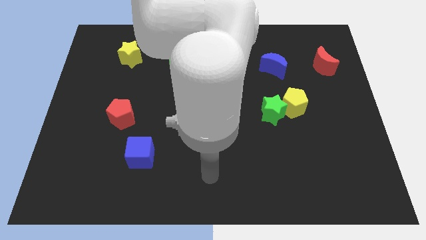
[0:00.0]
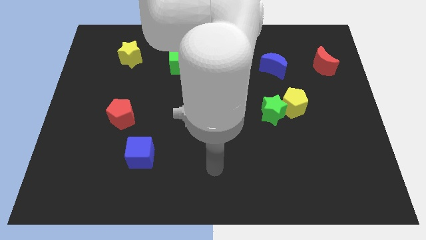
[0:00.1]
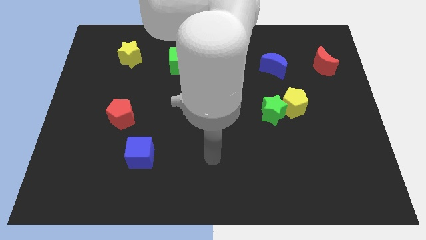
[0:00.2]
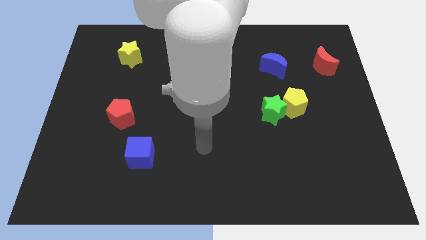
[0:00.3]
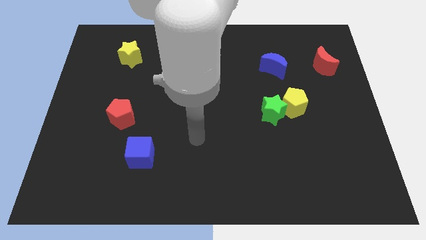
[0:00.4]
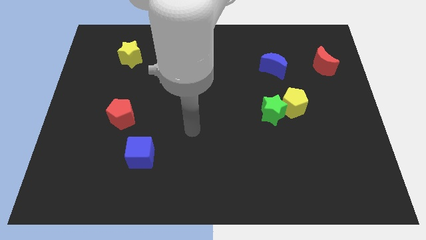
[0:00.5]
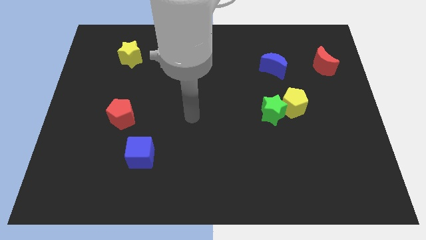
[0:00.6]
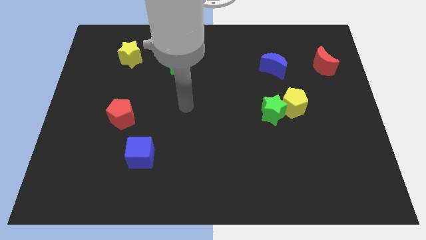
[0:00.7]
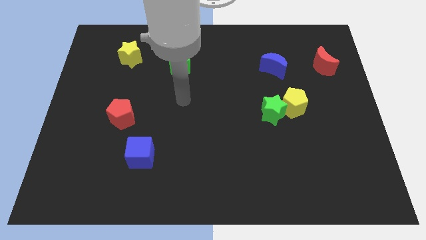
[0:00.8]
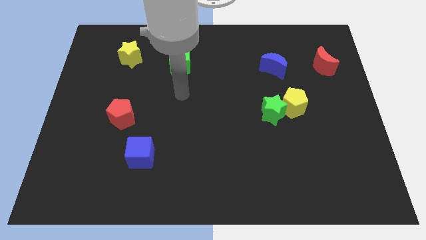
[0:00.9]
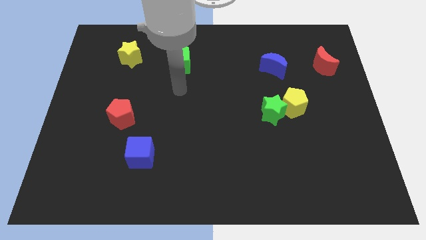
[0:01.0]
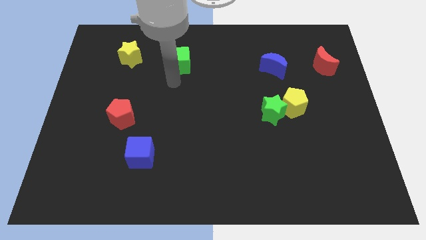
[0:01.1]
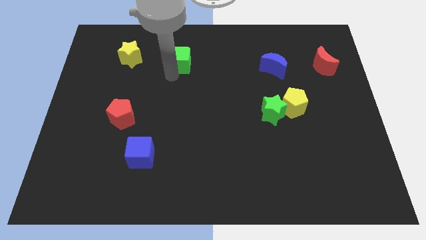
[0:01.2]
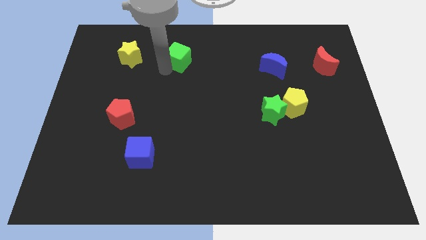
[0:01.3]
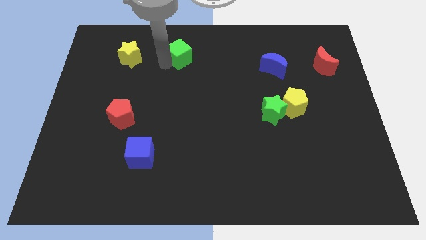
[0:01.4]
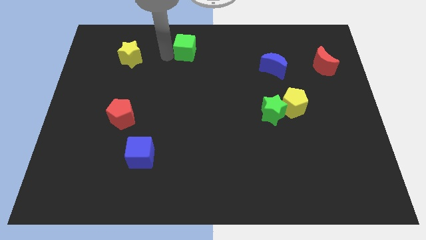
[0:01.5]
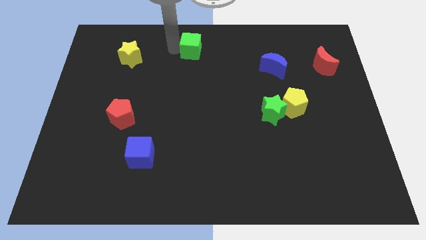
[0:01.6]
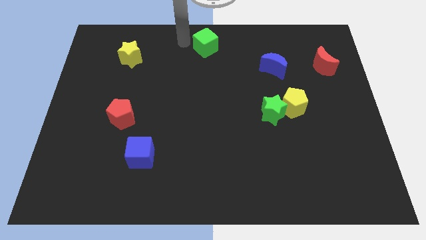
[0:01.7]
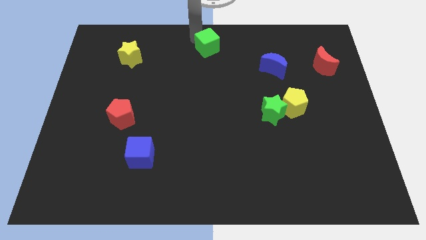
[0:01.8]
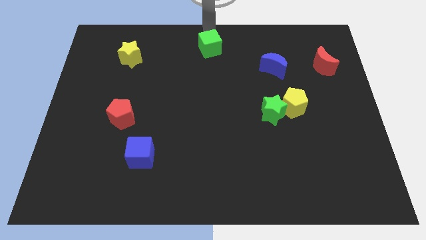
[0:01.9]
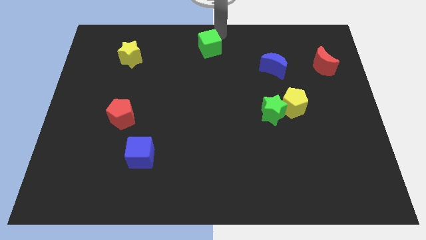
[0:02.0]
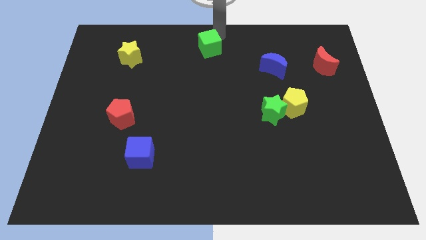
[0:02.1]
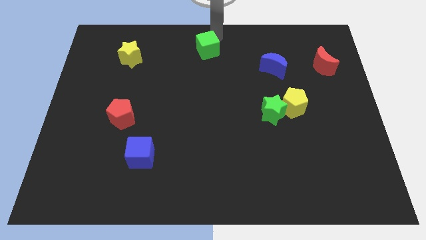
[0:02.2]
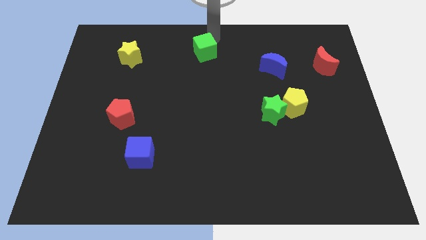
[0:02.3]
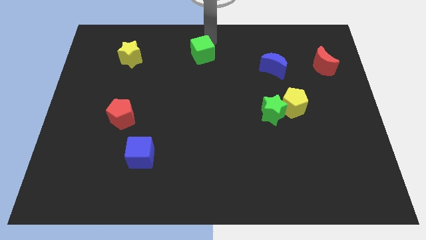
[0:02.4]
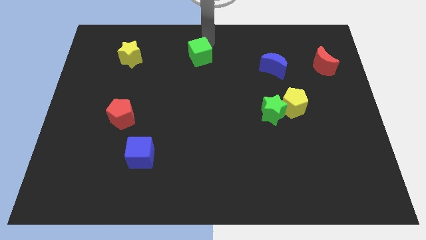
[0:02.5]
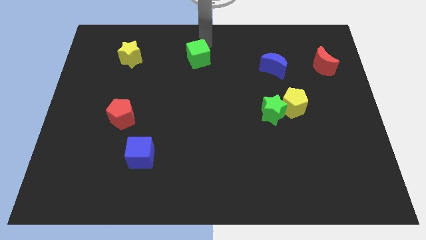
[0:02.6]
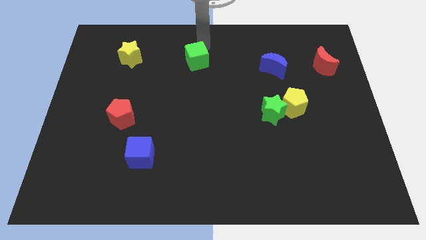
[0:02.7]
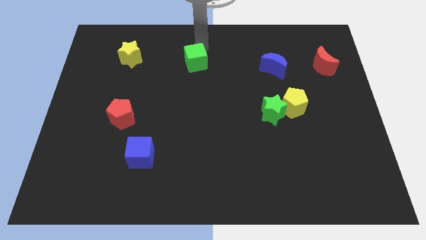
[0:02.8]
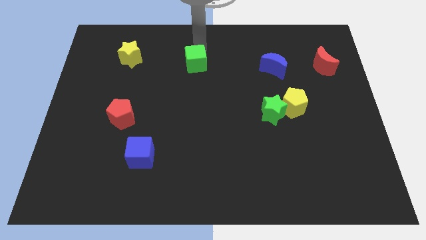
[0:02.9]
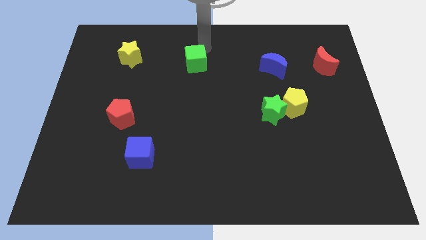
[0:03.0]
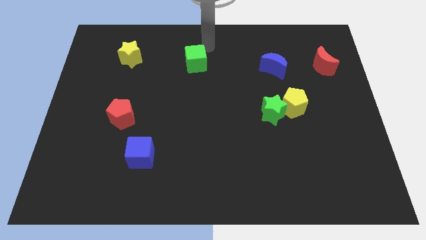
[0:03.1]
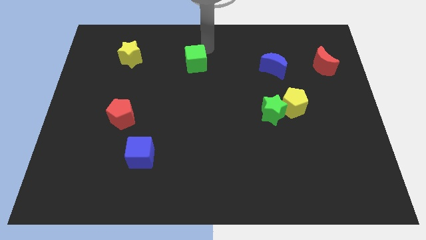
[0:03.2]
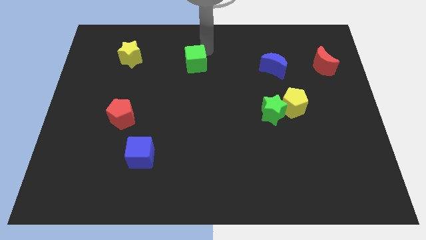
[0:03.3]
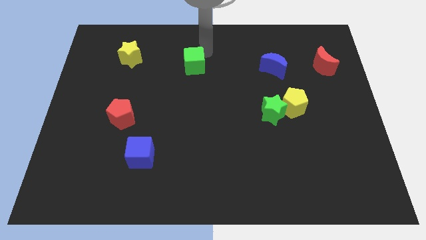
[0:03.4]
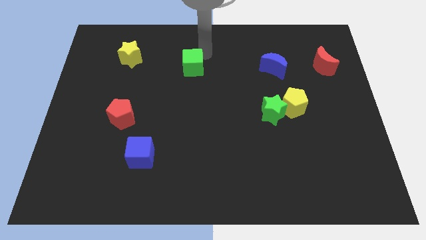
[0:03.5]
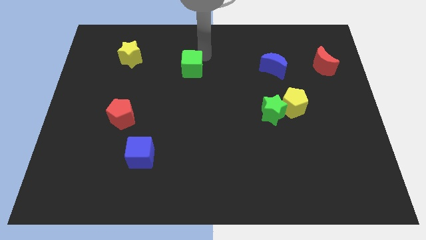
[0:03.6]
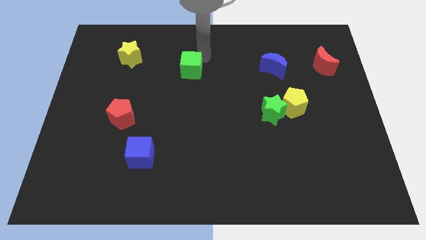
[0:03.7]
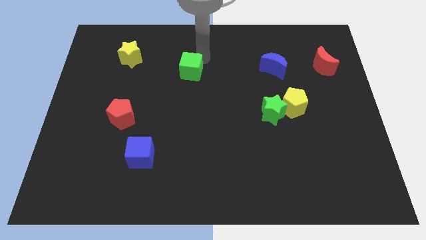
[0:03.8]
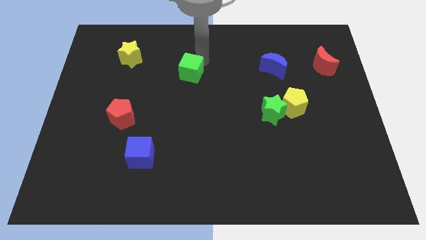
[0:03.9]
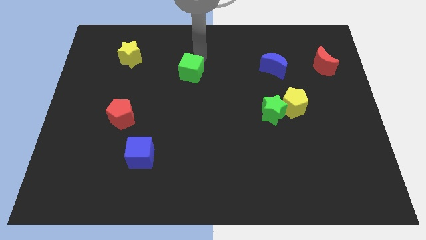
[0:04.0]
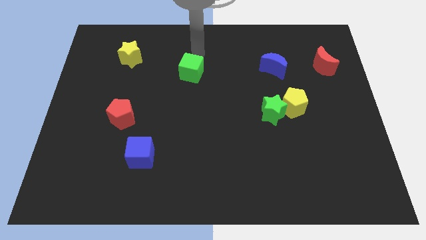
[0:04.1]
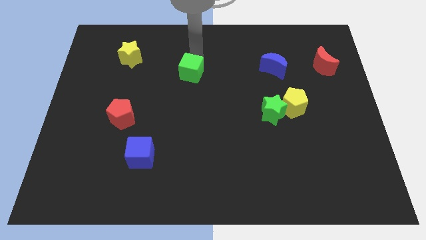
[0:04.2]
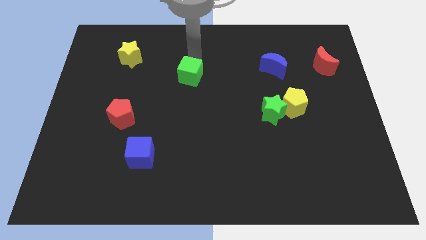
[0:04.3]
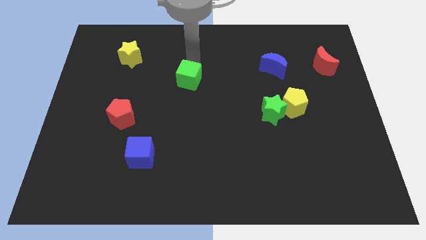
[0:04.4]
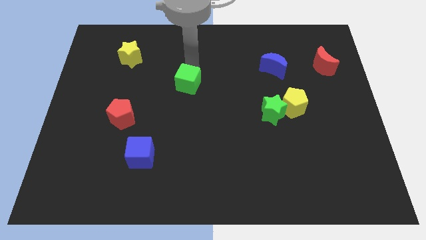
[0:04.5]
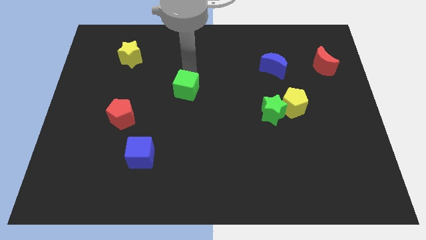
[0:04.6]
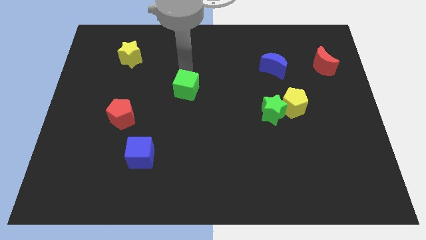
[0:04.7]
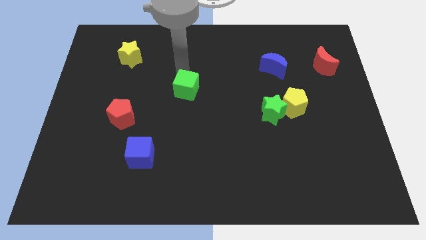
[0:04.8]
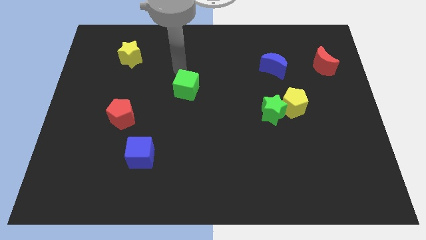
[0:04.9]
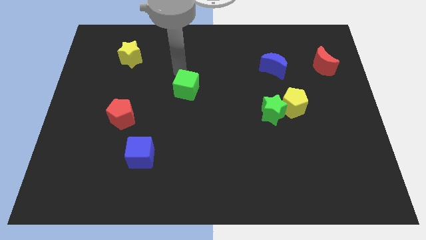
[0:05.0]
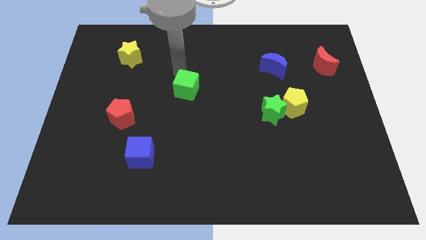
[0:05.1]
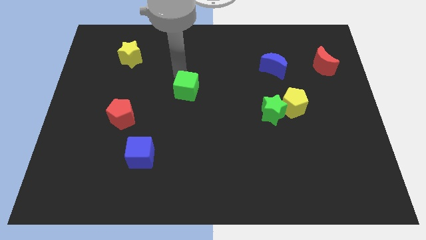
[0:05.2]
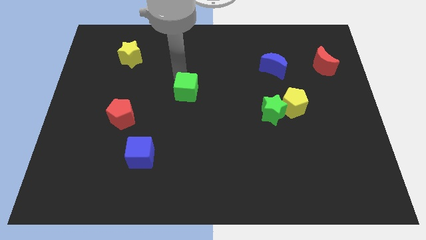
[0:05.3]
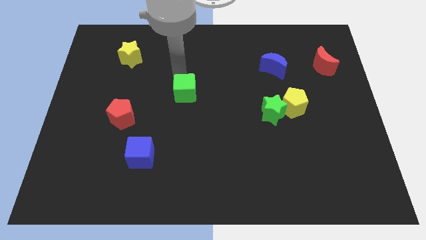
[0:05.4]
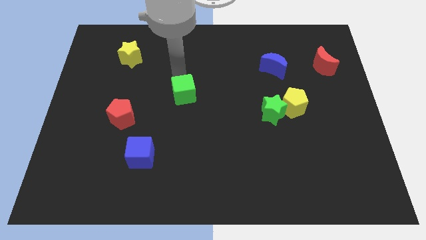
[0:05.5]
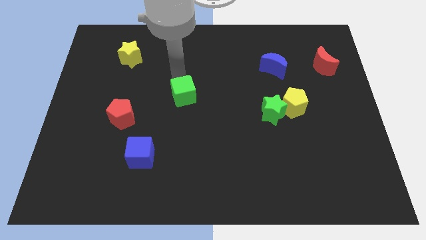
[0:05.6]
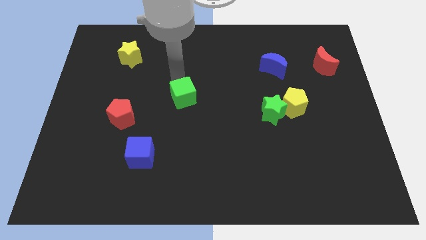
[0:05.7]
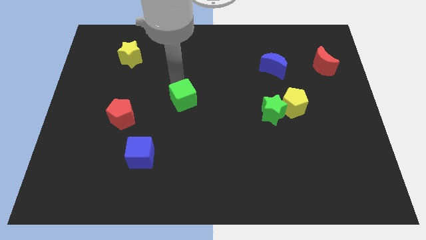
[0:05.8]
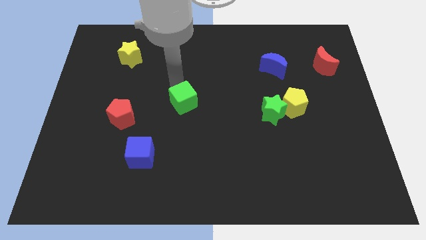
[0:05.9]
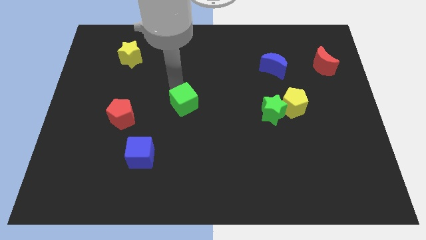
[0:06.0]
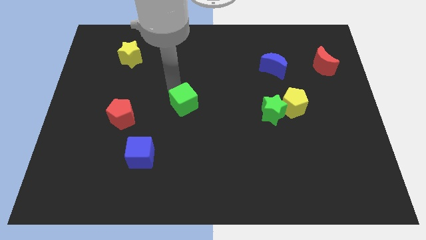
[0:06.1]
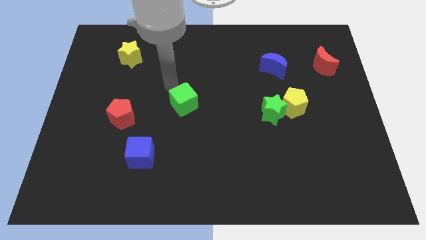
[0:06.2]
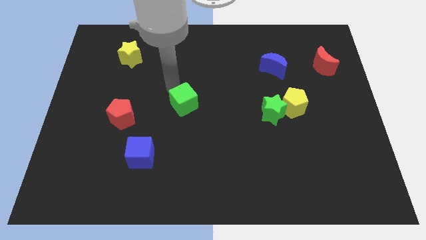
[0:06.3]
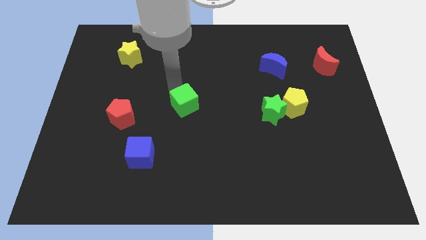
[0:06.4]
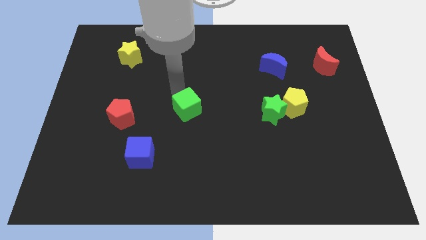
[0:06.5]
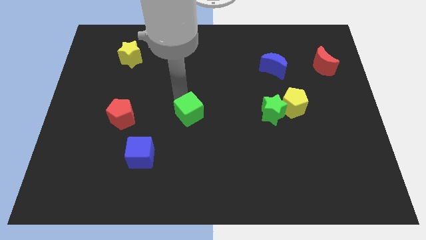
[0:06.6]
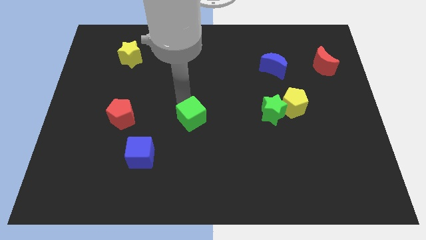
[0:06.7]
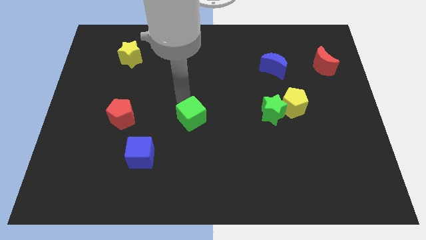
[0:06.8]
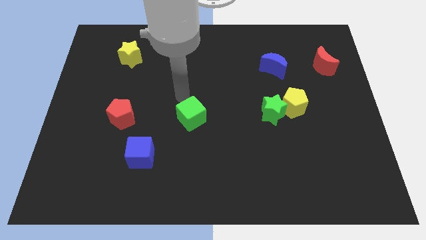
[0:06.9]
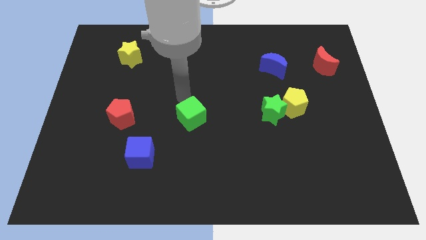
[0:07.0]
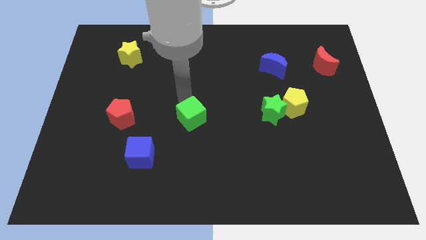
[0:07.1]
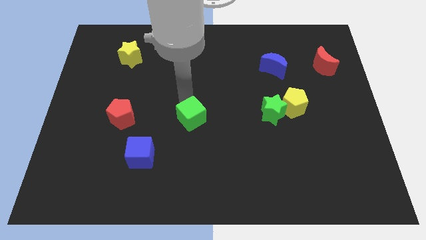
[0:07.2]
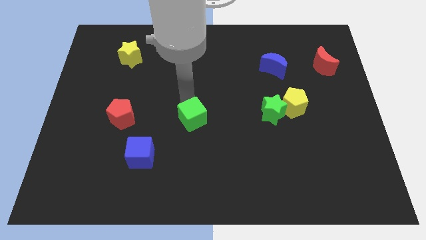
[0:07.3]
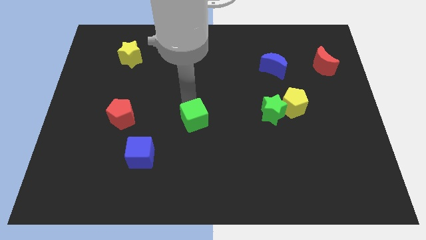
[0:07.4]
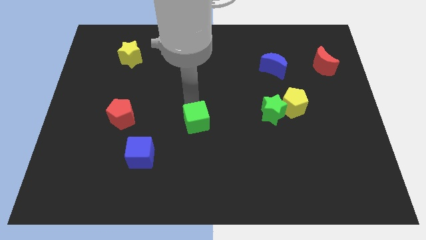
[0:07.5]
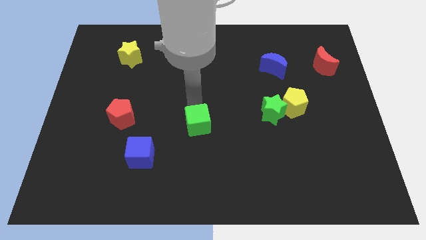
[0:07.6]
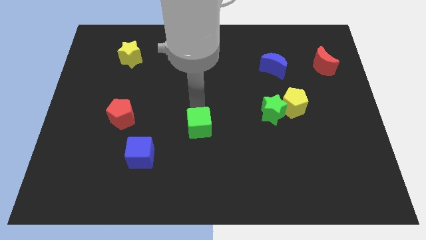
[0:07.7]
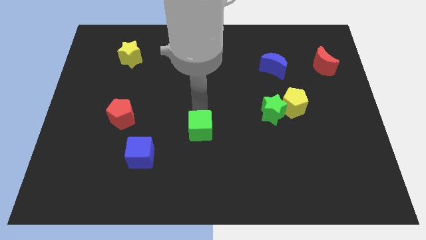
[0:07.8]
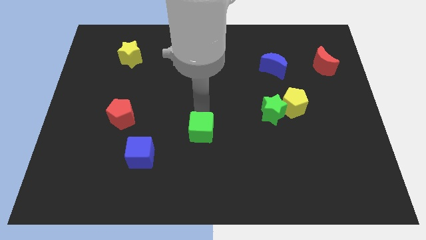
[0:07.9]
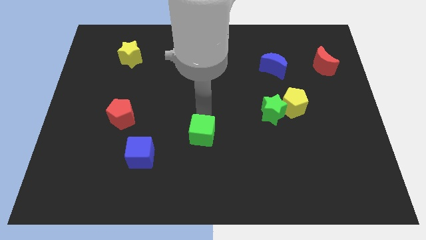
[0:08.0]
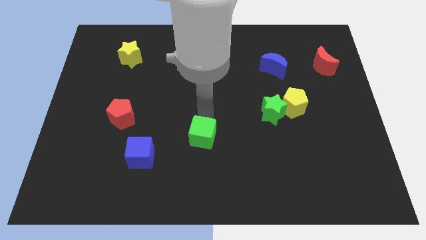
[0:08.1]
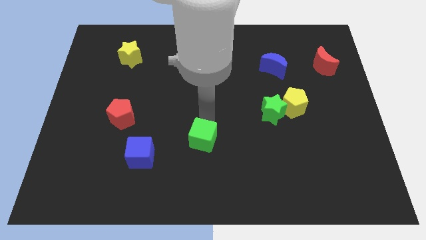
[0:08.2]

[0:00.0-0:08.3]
move the green cube to the right of the blue cube
